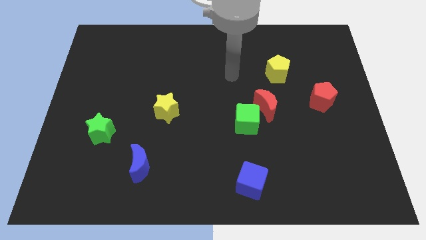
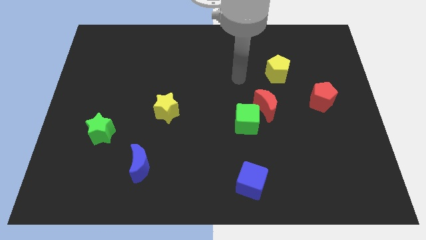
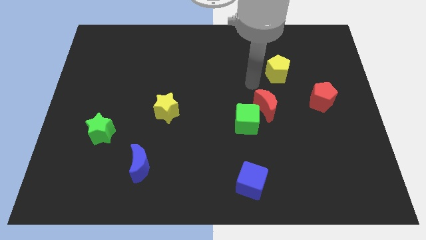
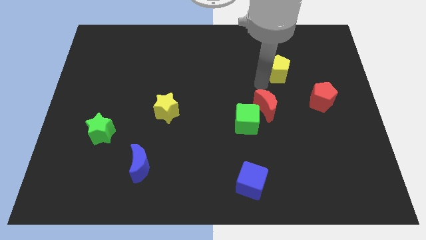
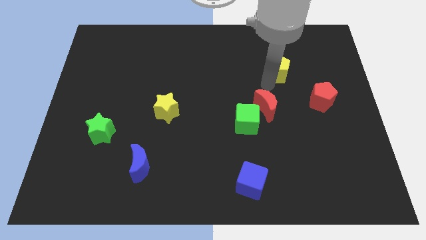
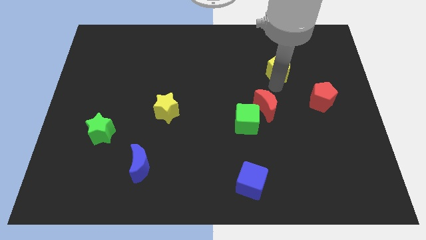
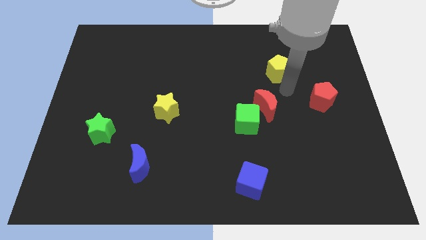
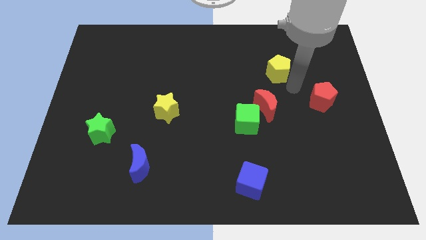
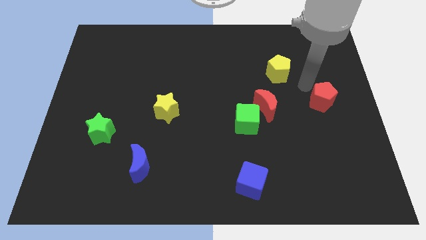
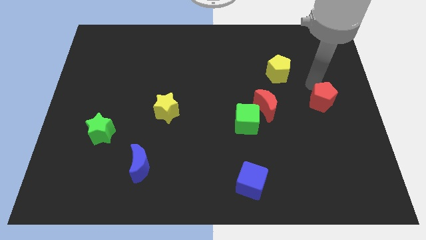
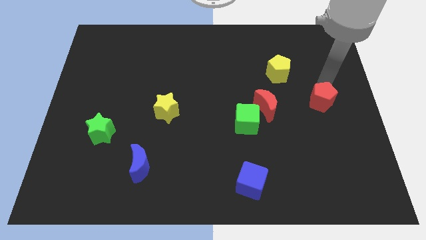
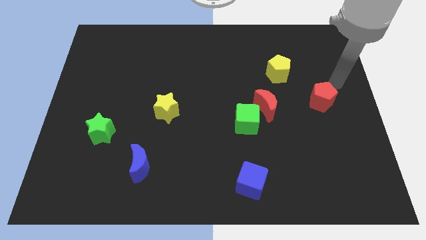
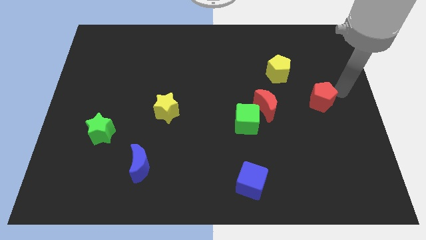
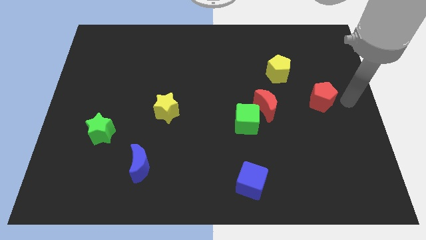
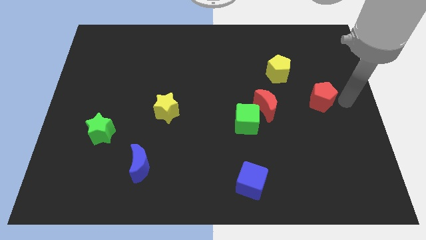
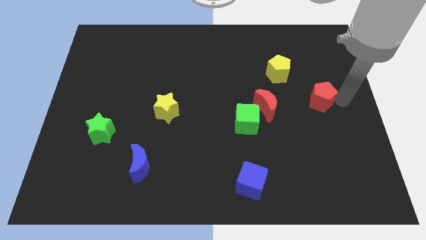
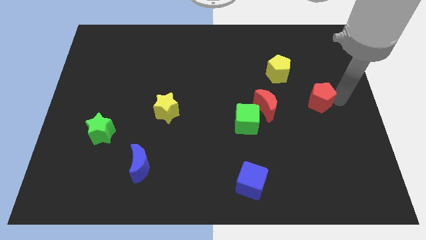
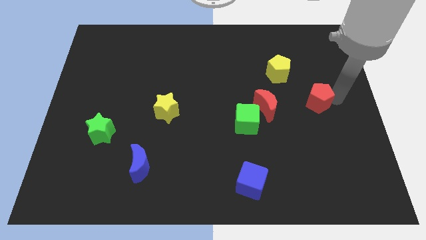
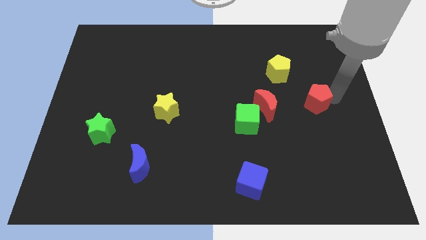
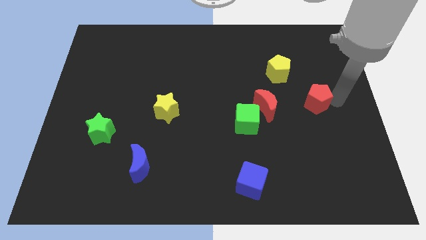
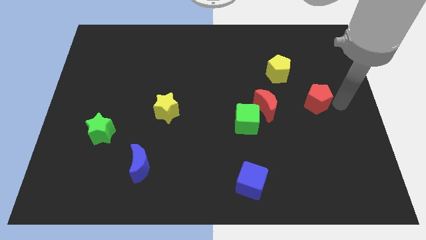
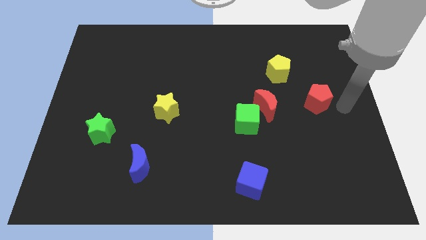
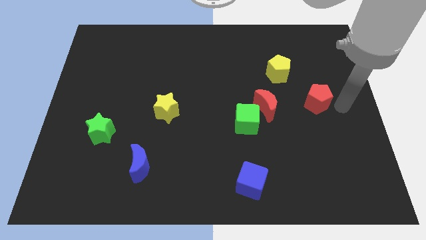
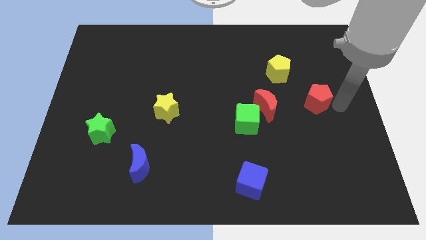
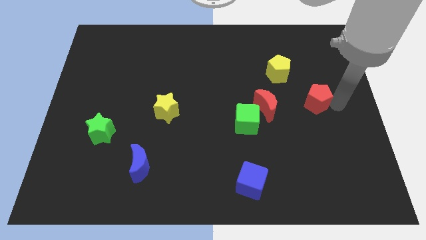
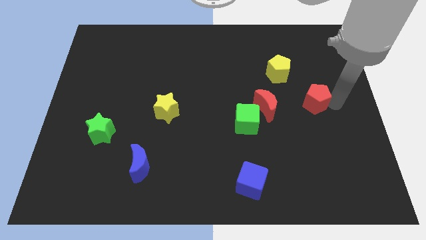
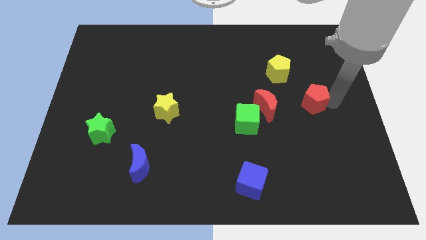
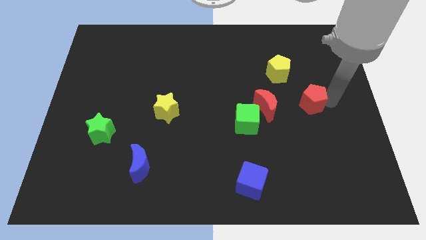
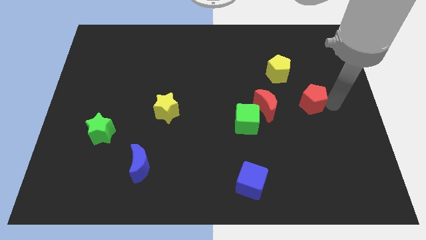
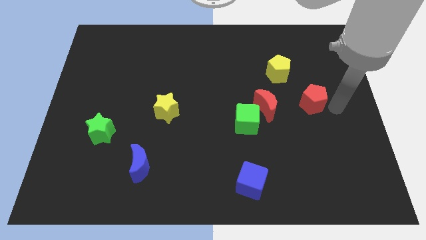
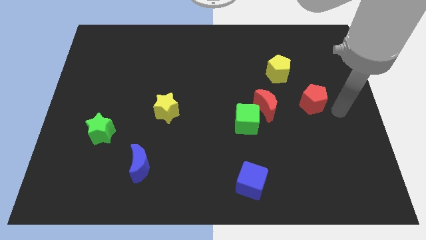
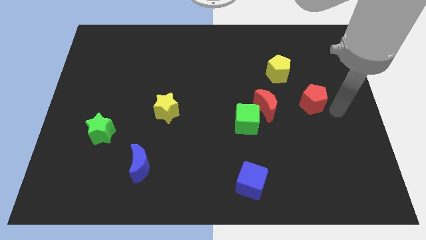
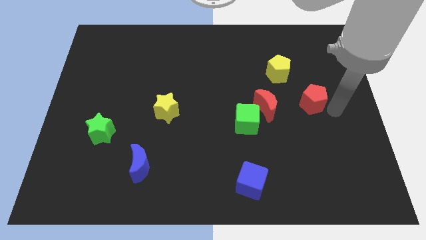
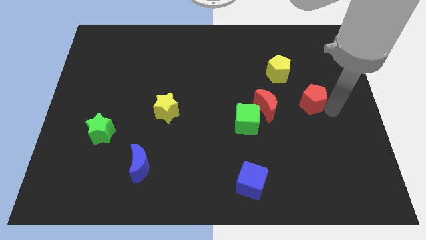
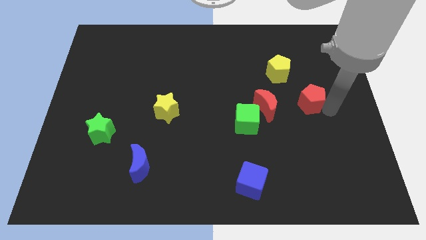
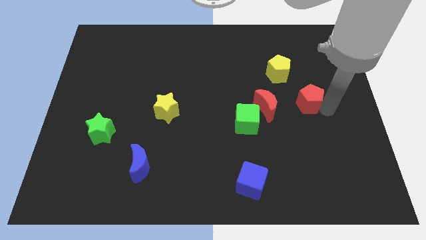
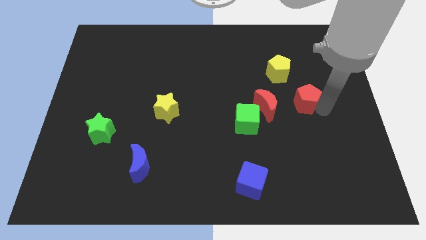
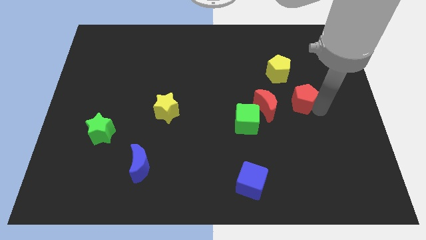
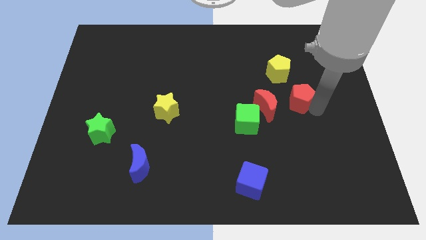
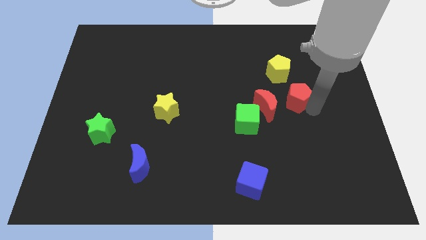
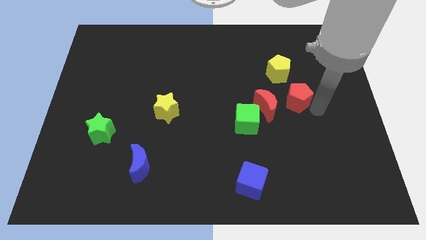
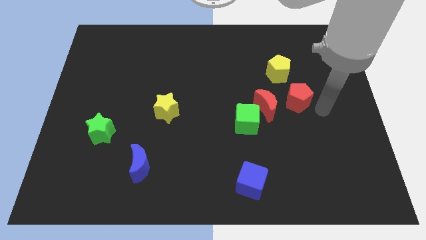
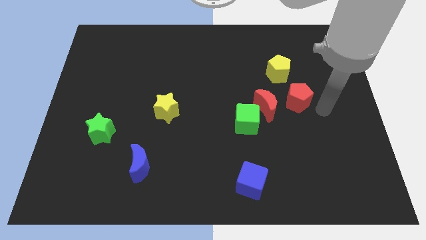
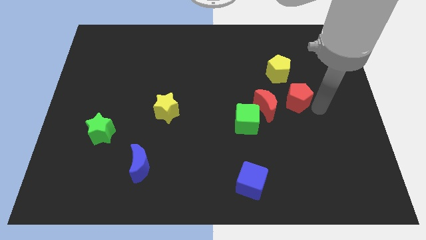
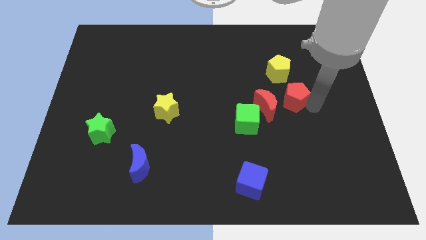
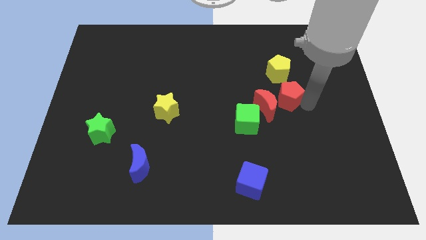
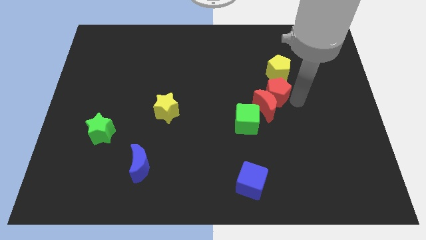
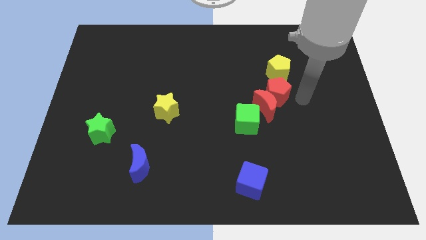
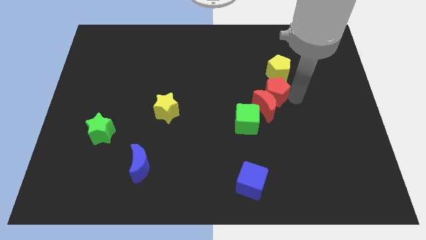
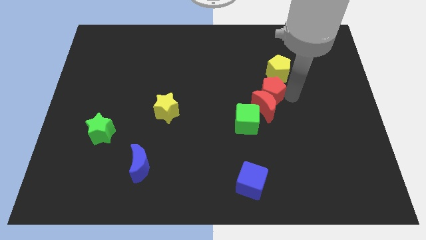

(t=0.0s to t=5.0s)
slide the red pentagon to the top left of the red moon

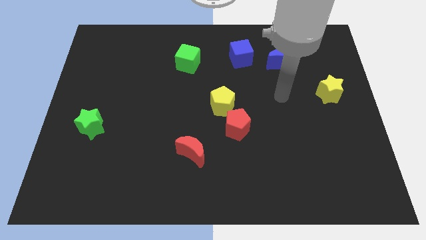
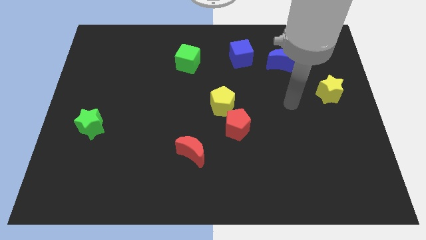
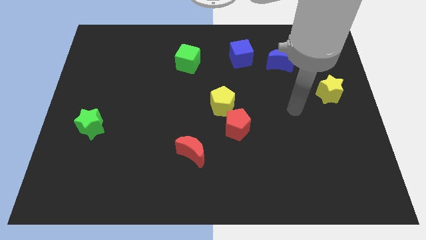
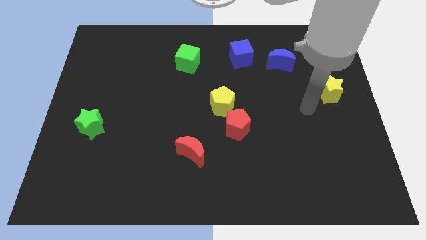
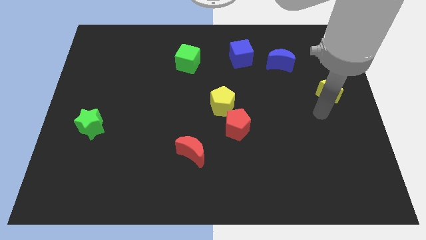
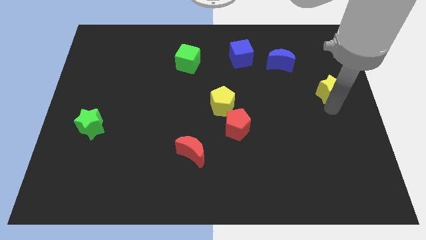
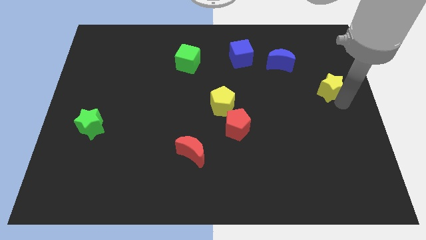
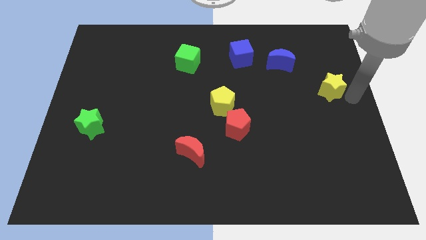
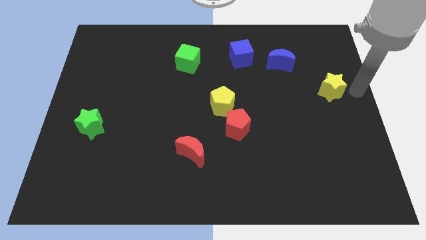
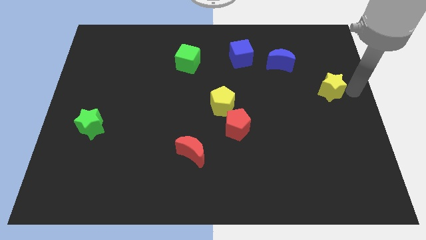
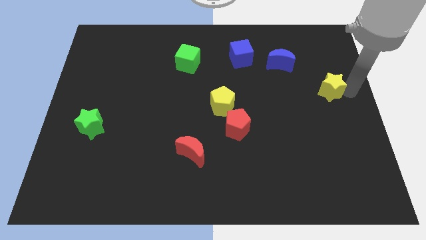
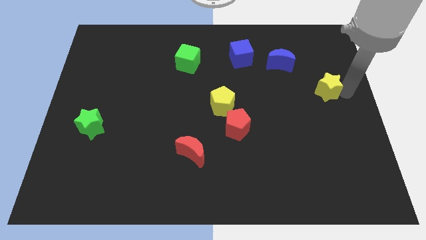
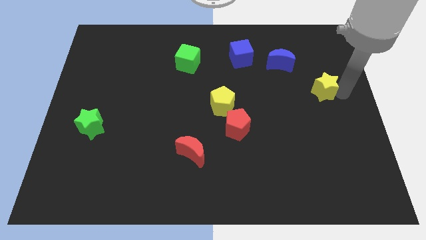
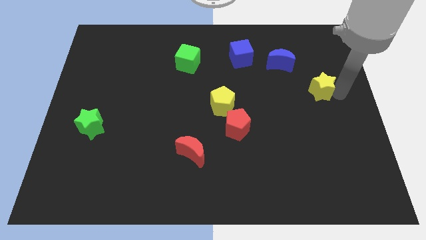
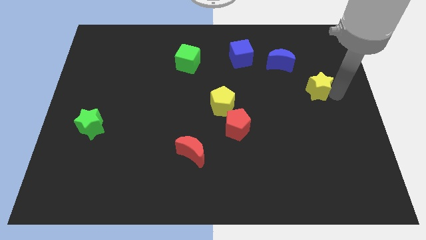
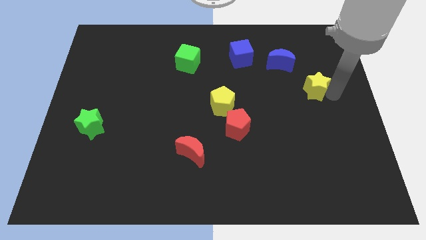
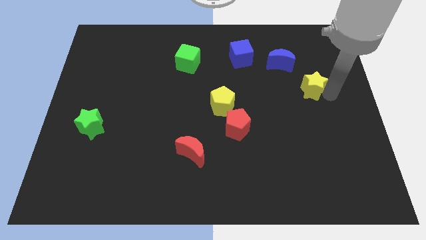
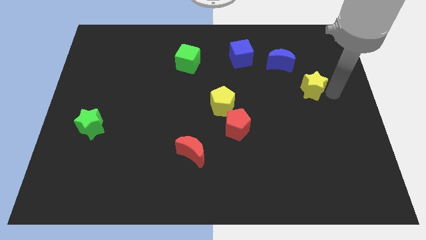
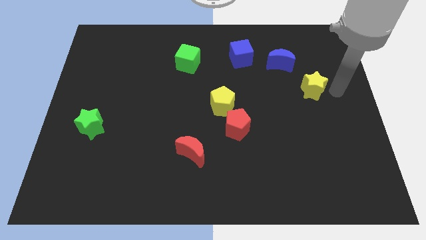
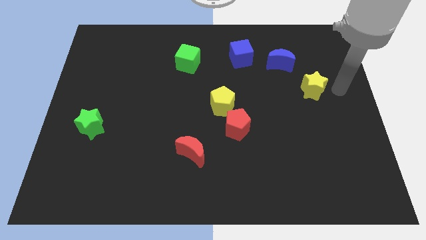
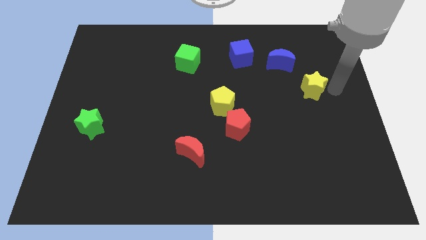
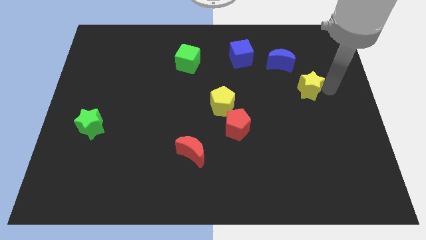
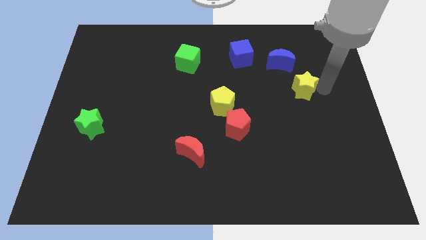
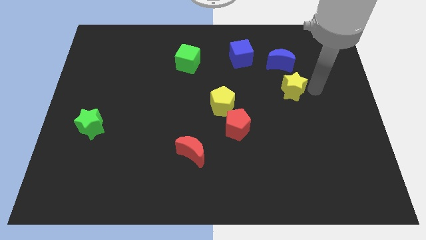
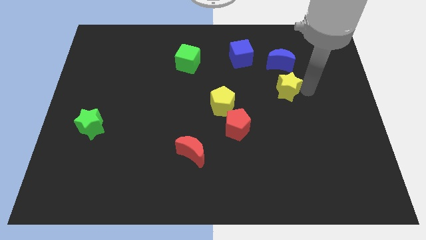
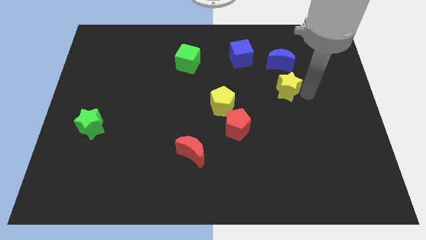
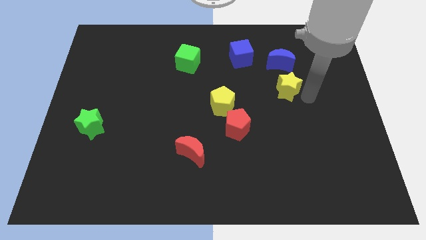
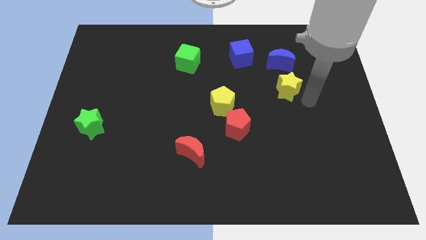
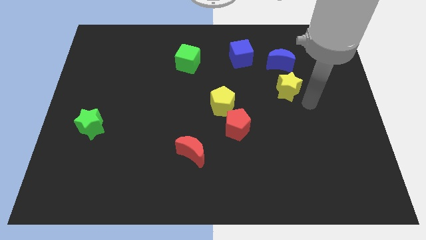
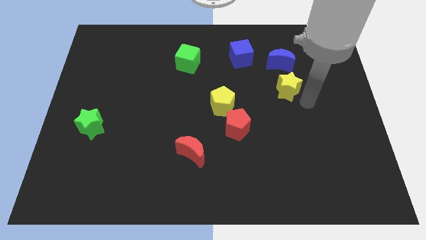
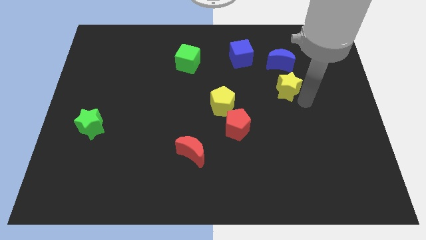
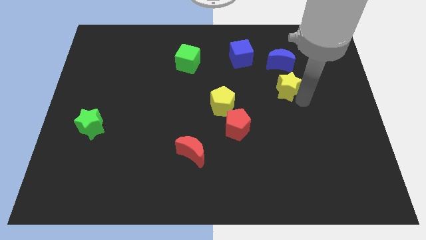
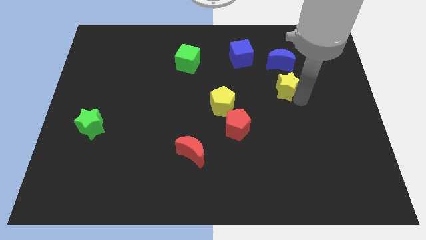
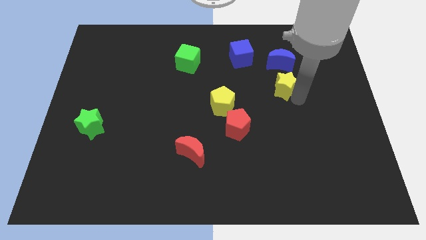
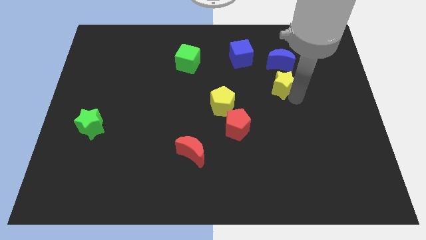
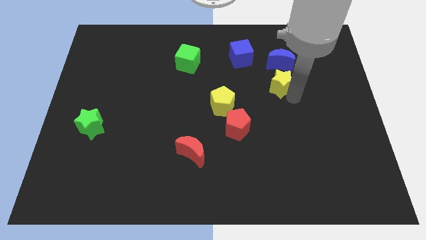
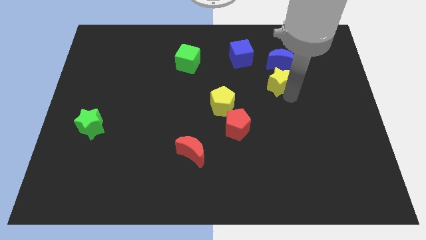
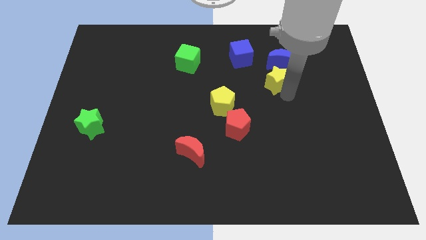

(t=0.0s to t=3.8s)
push the yellow star to the bottom right side of the blue cube
